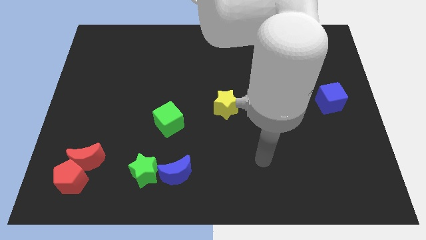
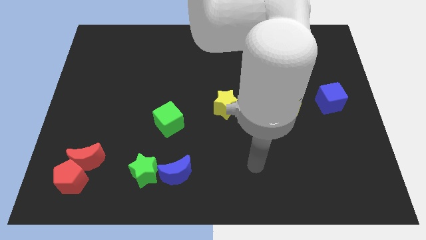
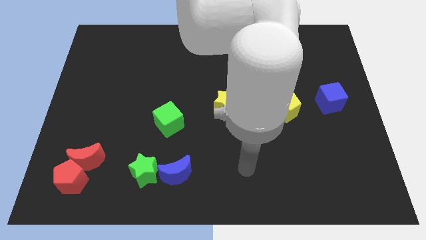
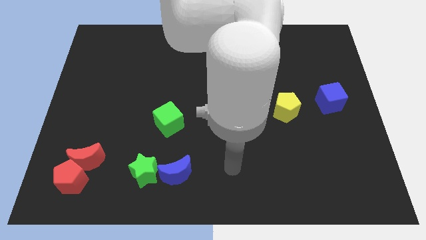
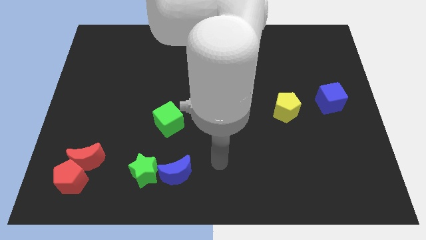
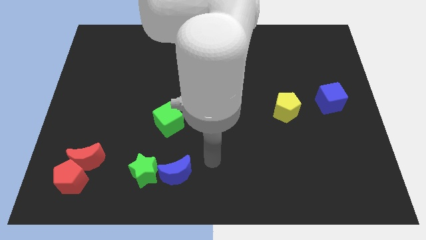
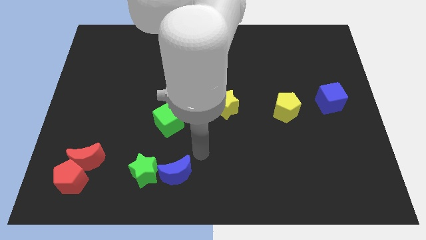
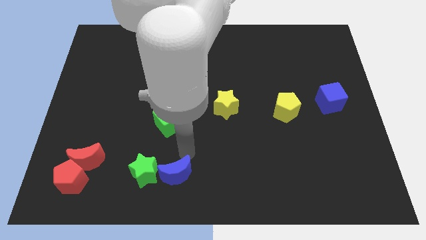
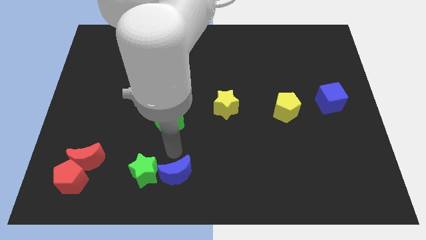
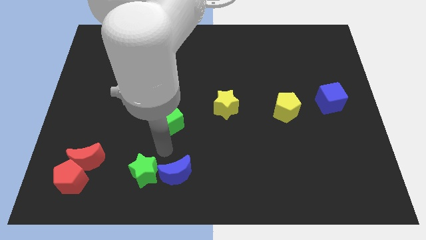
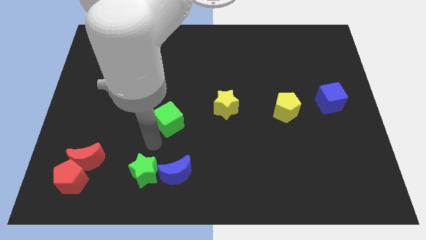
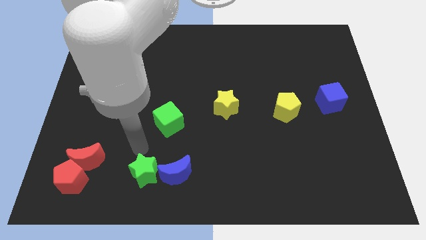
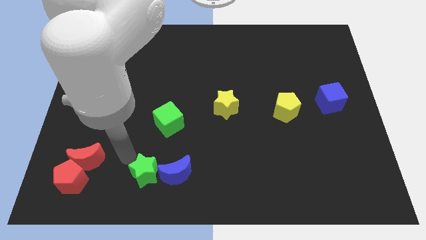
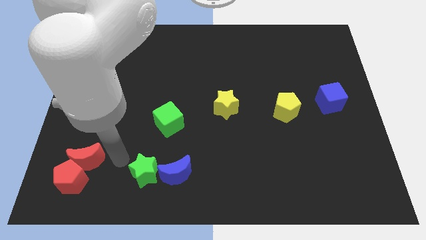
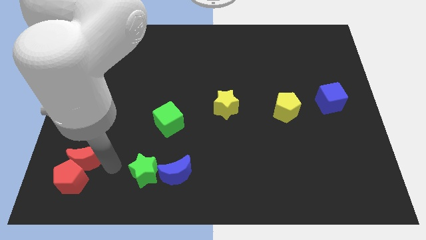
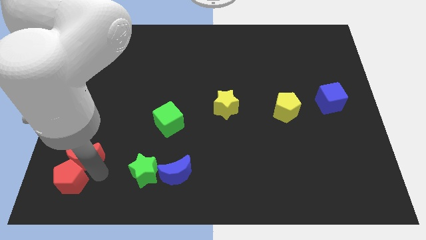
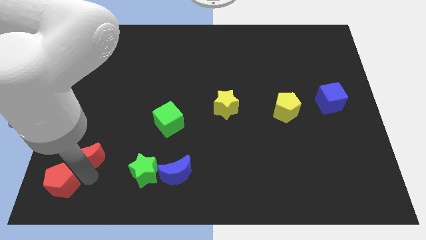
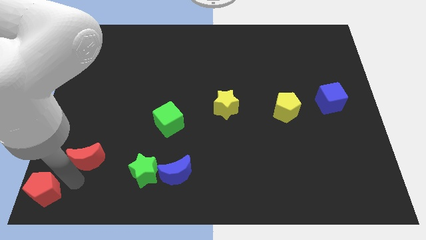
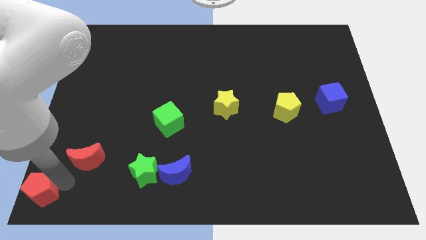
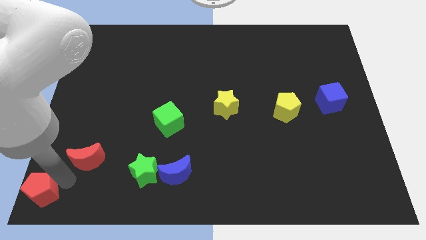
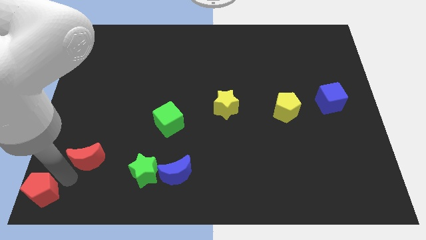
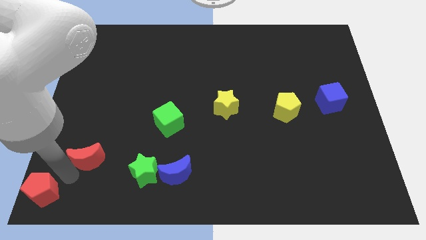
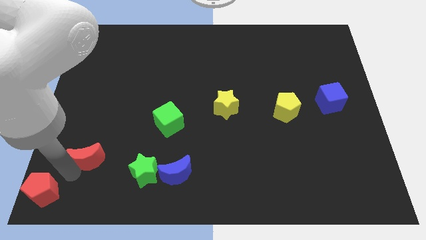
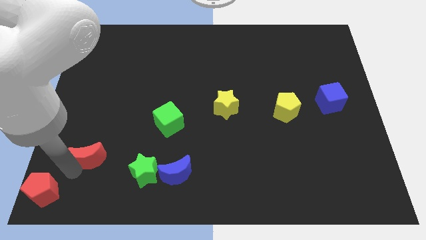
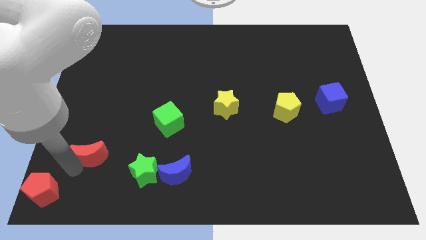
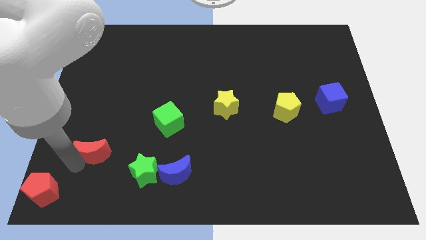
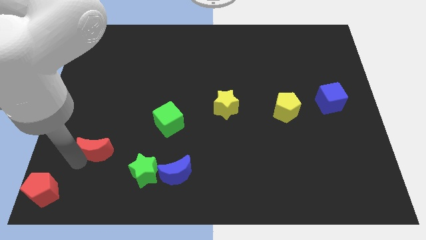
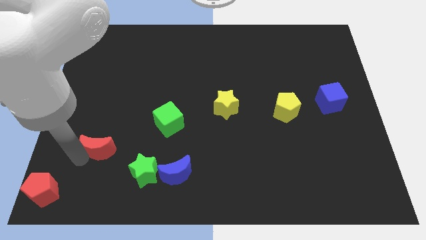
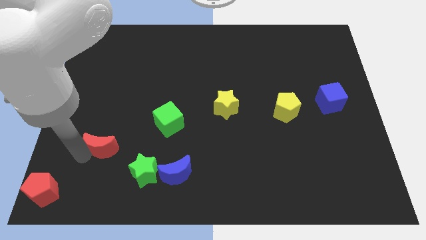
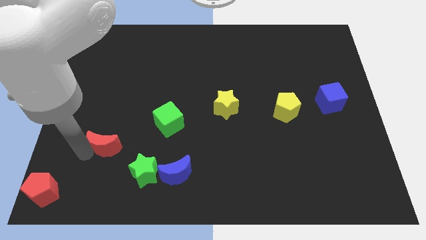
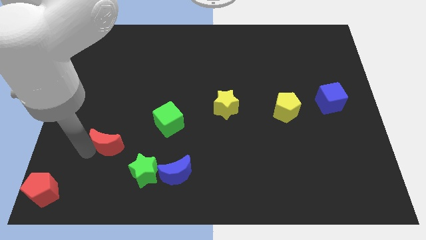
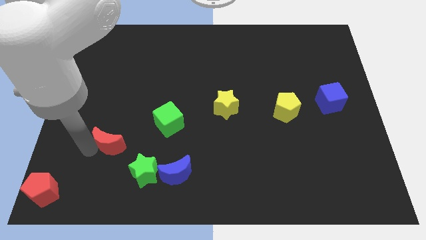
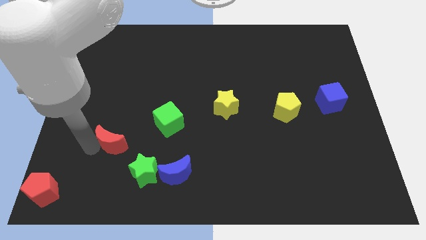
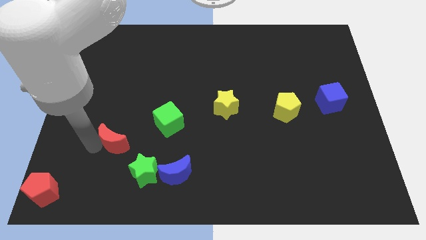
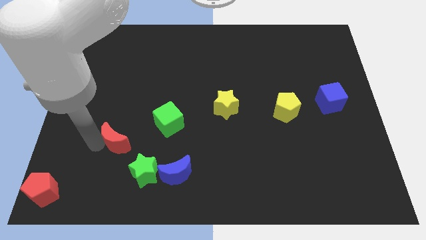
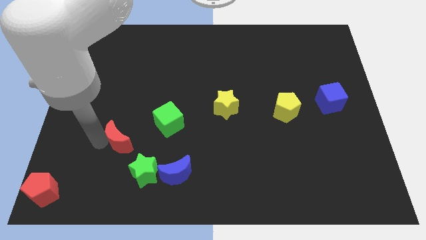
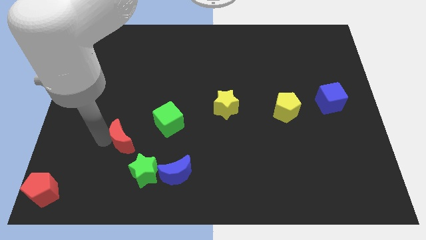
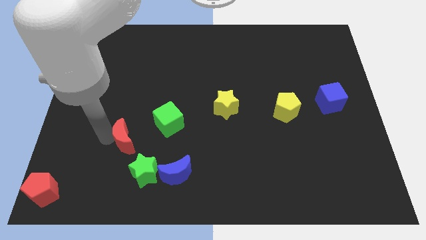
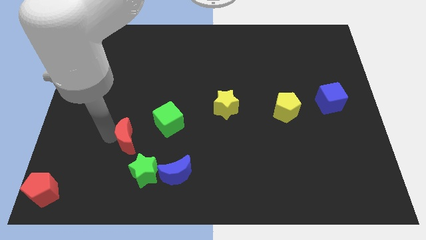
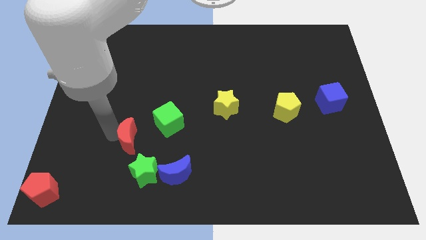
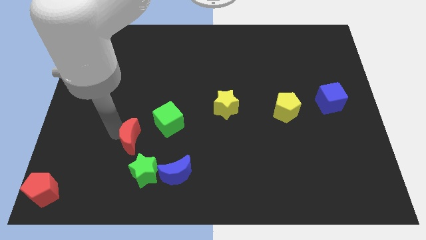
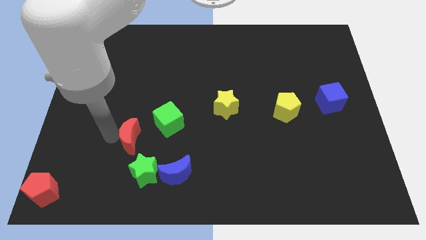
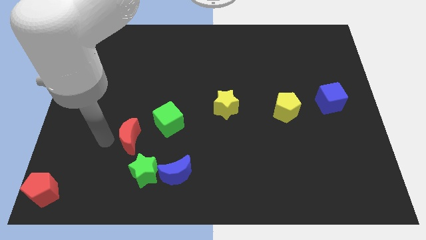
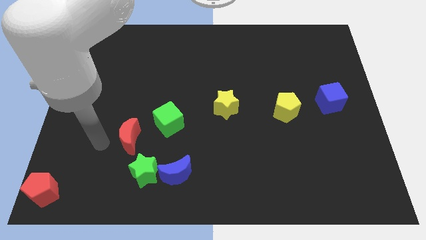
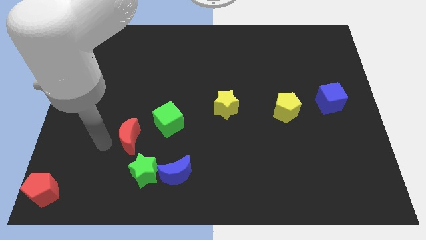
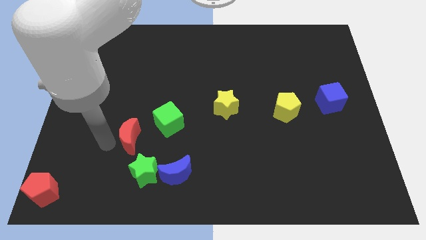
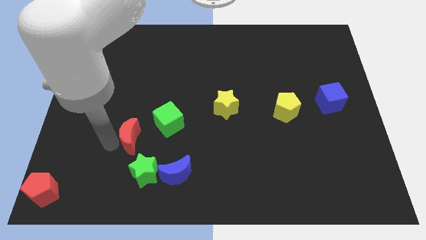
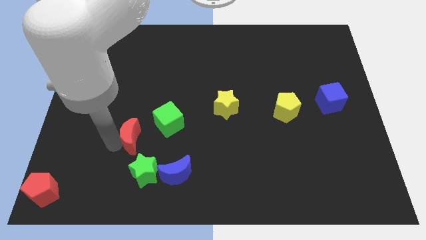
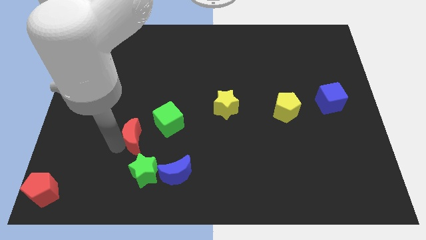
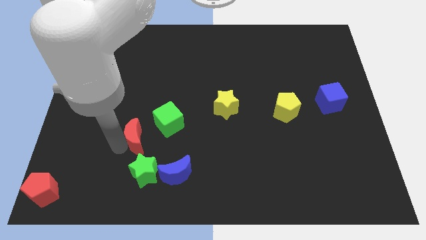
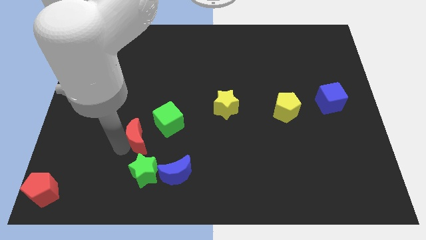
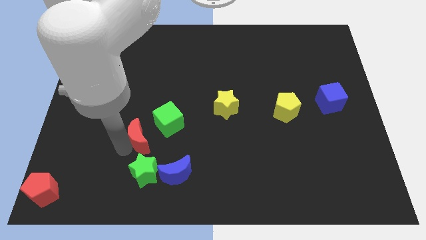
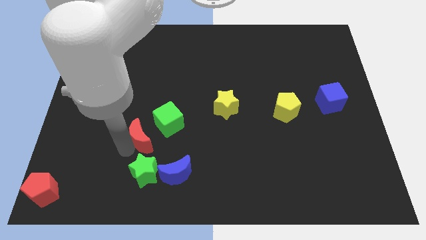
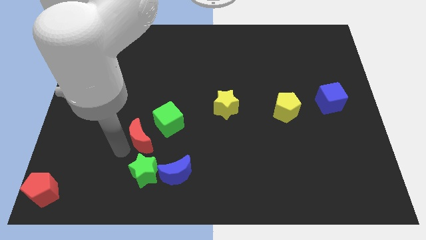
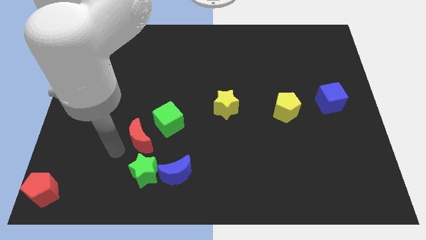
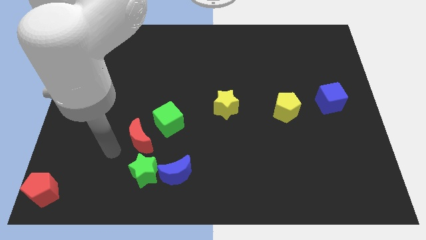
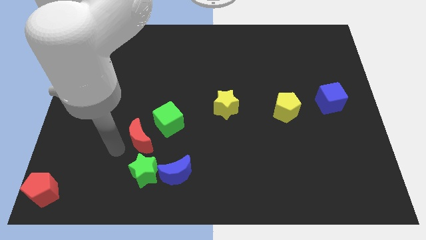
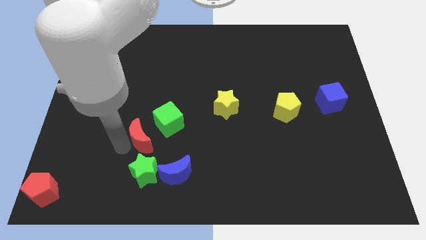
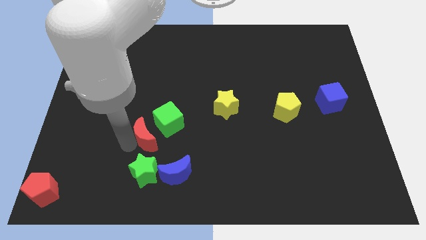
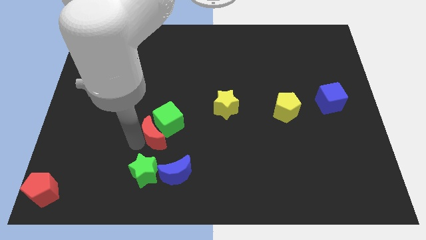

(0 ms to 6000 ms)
slide the red moon to the green cube

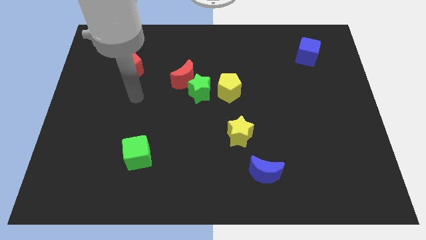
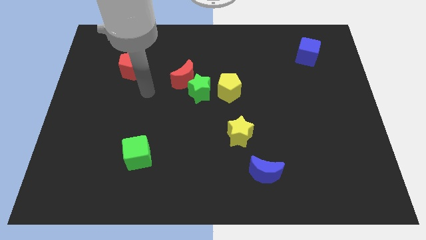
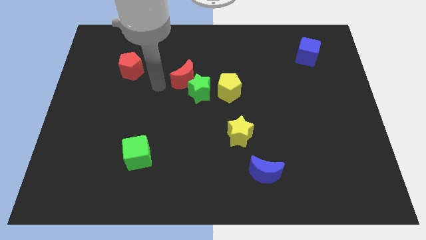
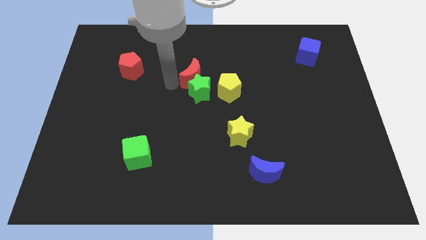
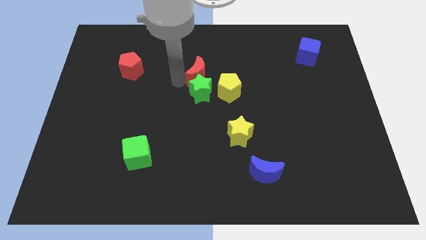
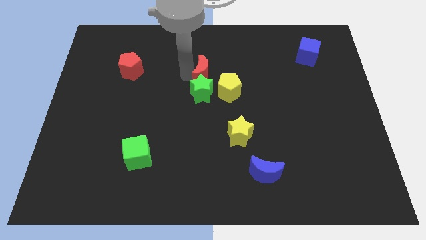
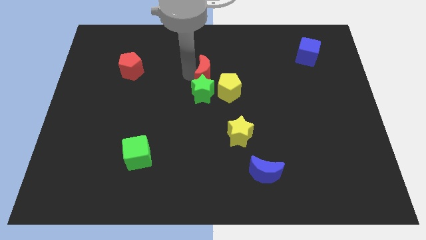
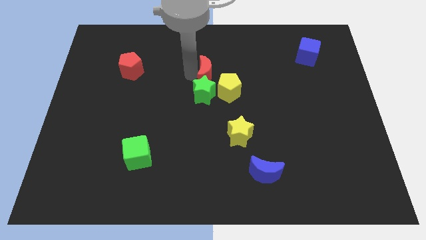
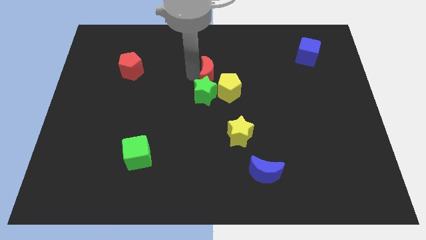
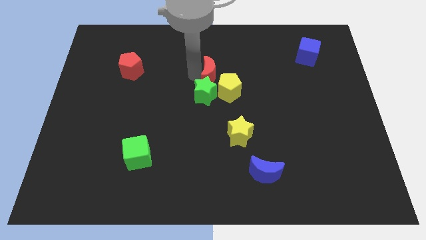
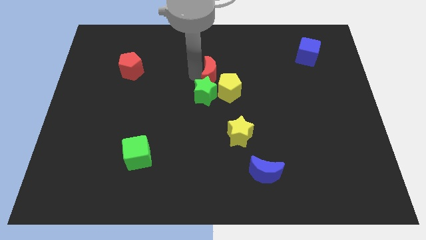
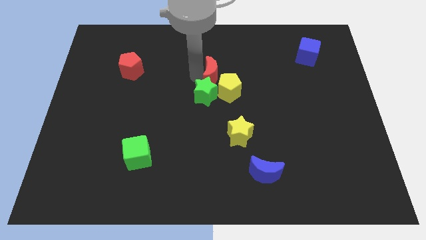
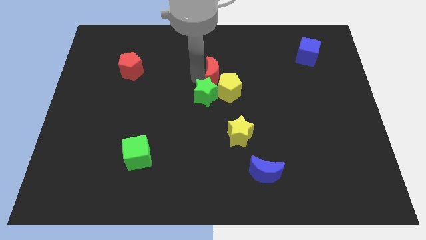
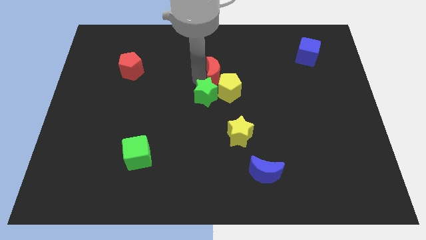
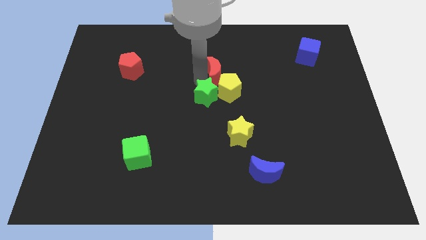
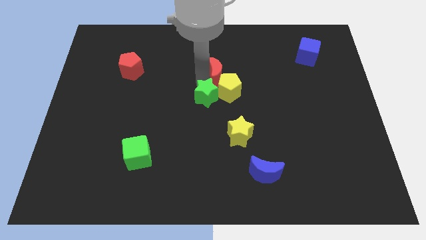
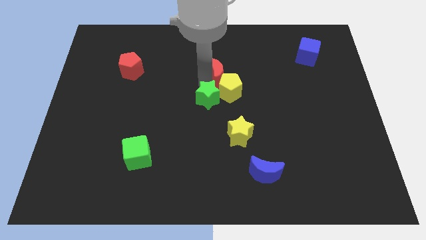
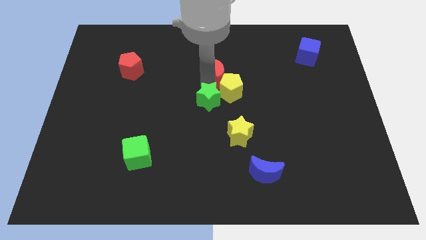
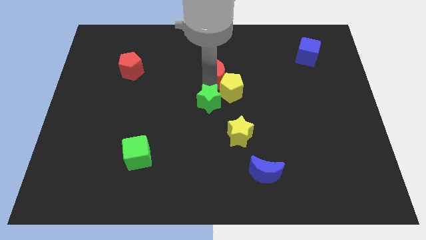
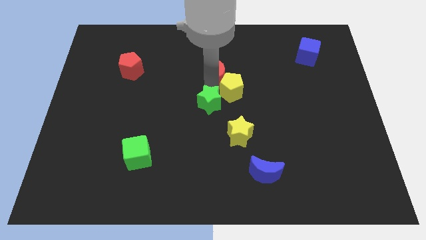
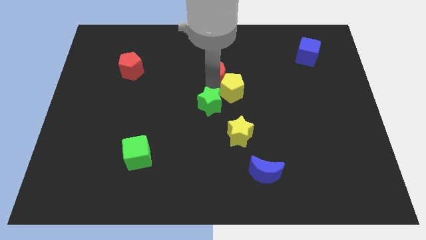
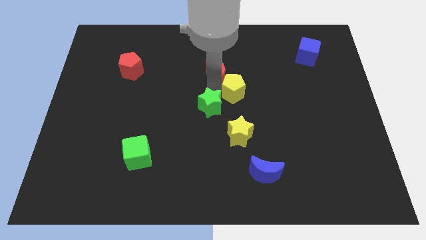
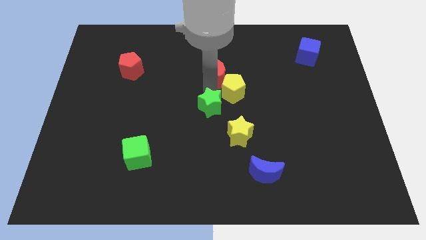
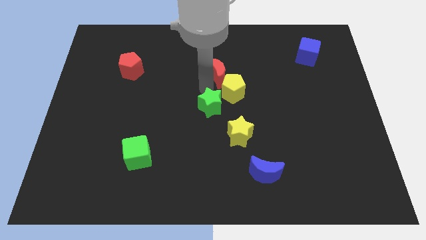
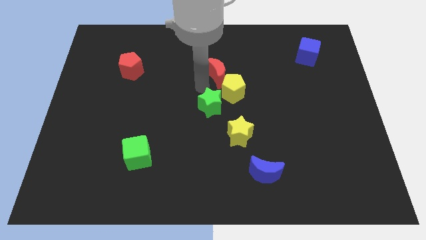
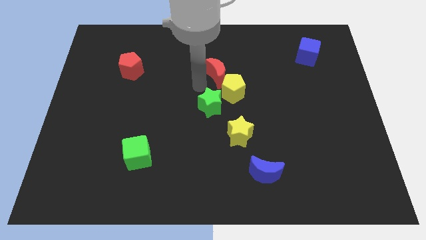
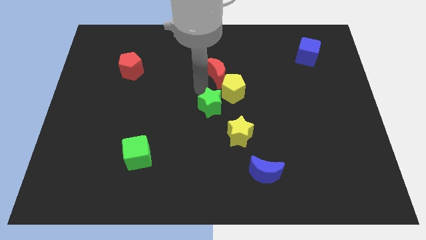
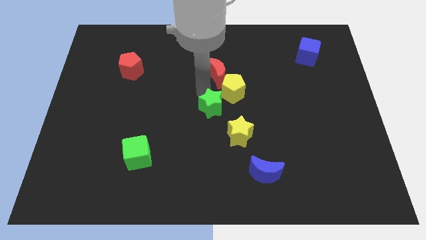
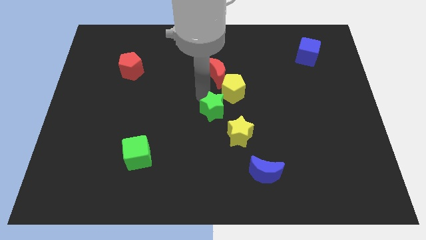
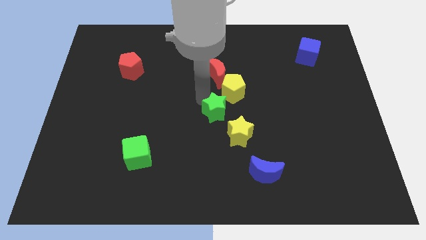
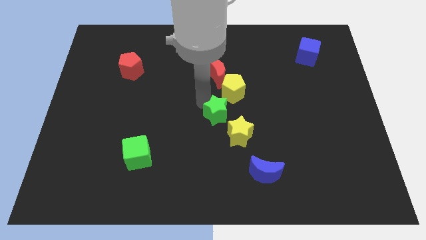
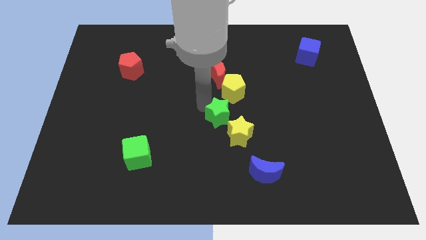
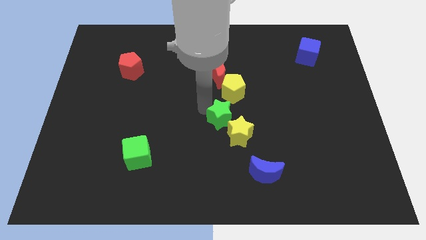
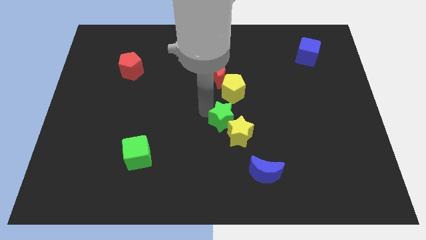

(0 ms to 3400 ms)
slide the green star to the yellow star
